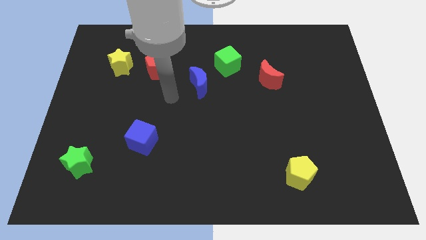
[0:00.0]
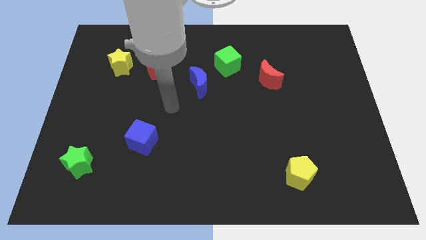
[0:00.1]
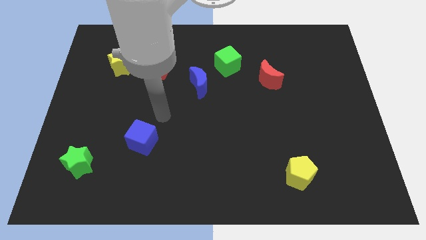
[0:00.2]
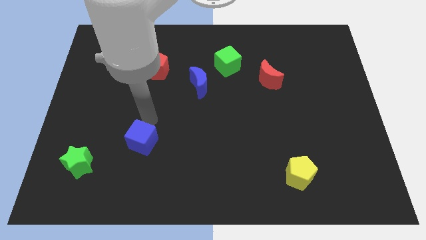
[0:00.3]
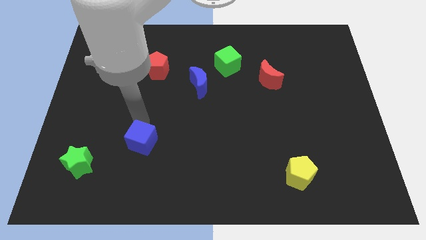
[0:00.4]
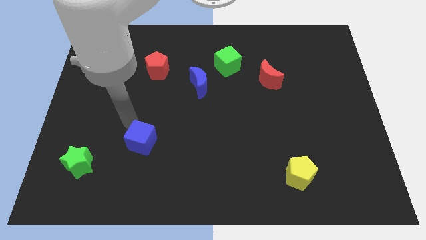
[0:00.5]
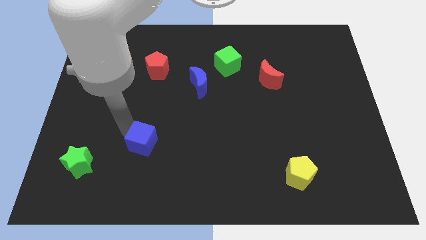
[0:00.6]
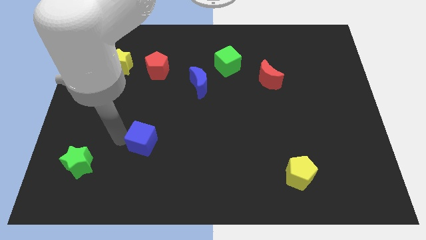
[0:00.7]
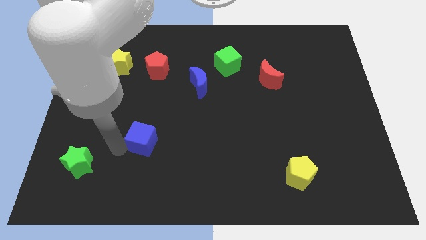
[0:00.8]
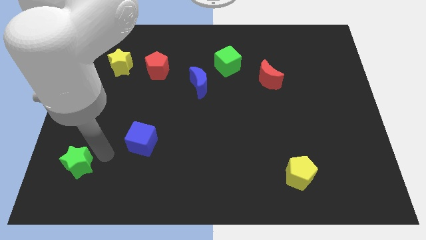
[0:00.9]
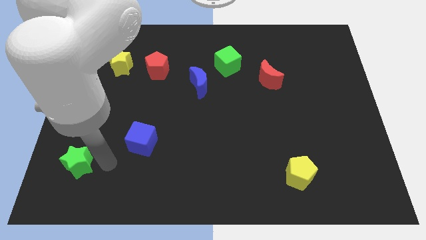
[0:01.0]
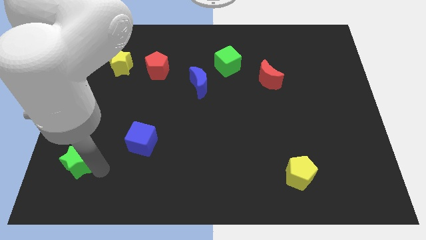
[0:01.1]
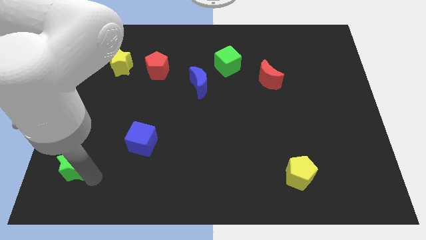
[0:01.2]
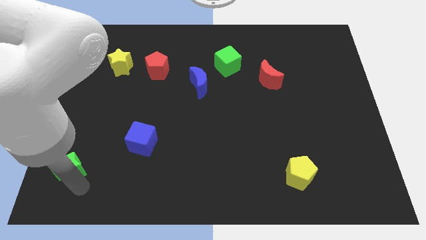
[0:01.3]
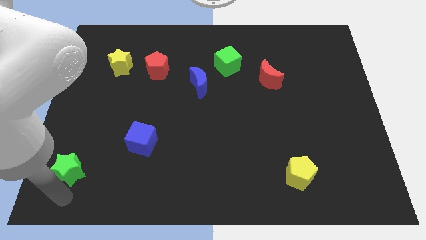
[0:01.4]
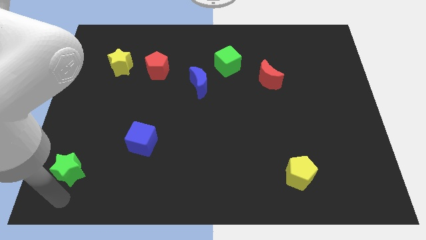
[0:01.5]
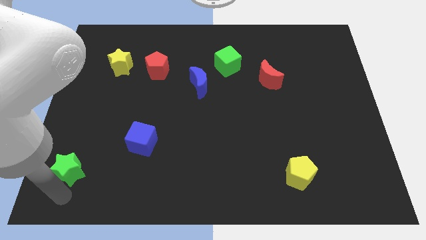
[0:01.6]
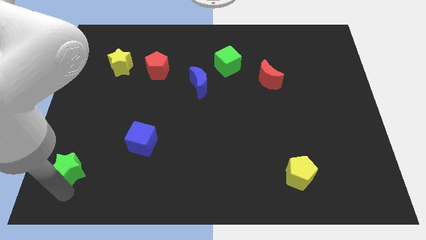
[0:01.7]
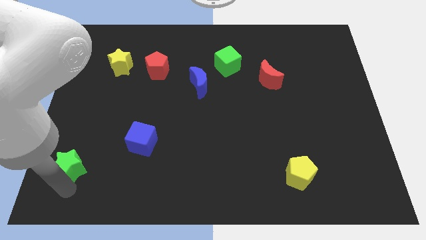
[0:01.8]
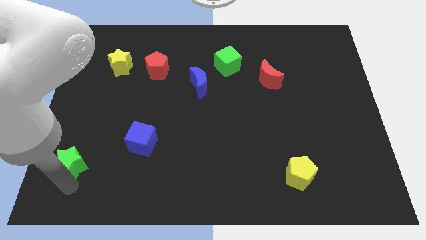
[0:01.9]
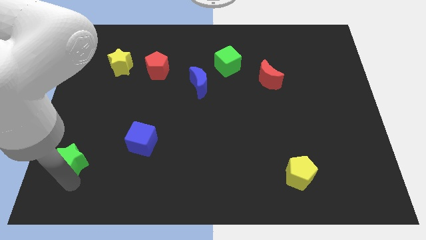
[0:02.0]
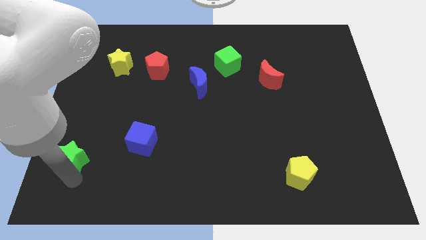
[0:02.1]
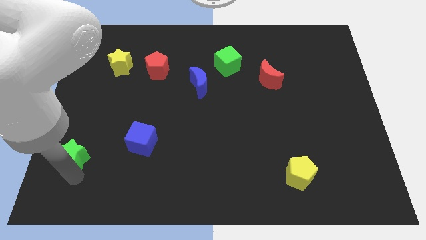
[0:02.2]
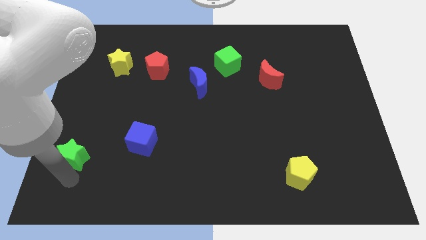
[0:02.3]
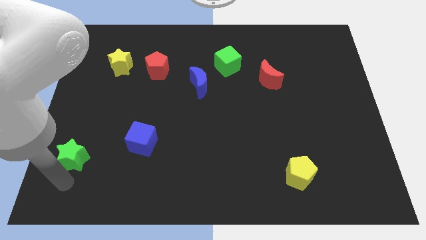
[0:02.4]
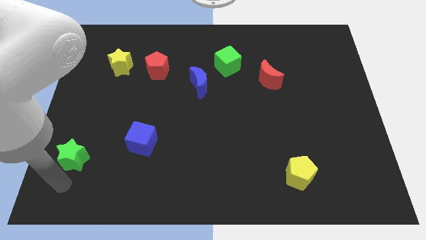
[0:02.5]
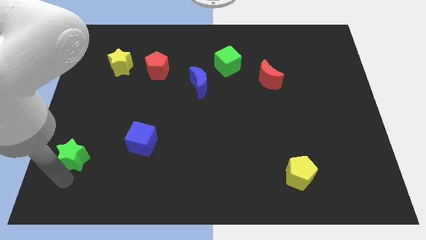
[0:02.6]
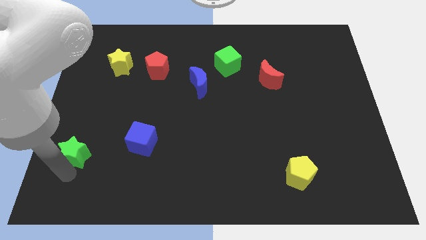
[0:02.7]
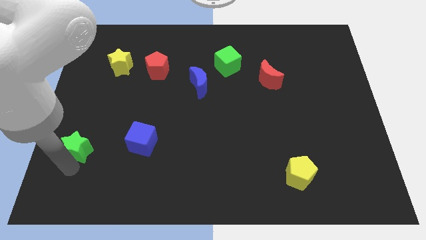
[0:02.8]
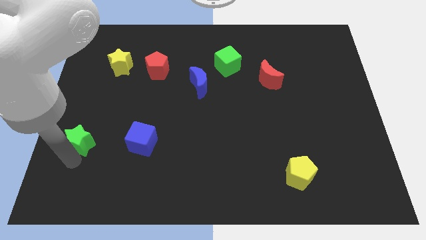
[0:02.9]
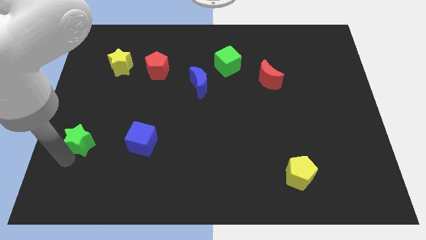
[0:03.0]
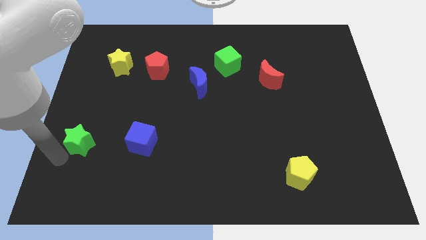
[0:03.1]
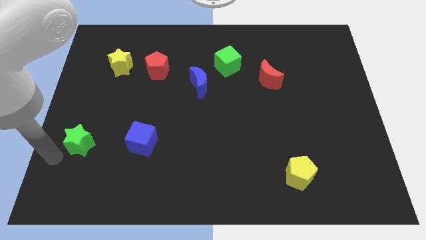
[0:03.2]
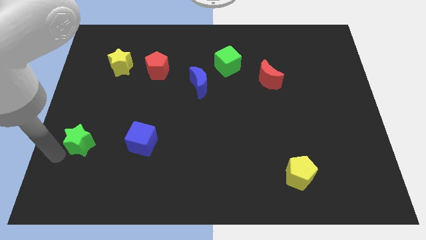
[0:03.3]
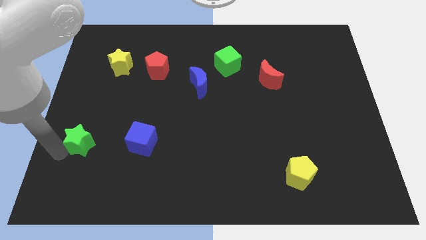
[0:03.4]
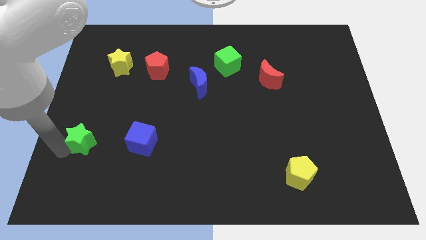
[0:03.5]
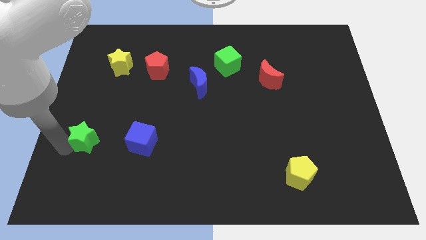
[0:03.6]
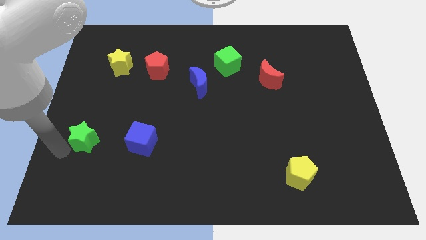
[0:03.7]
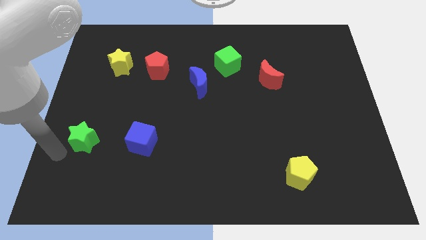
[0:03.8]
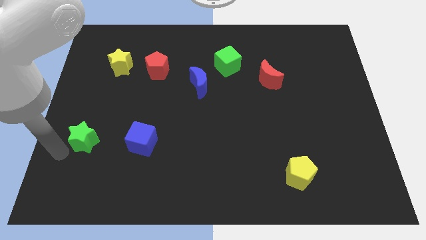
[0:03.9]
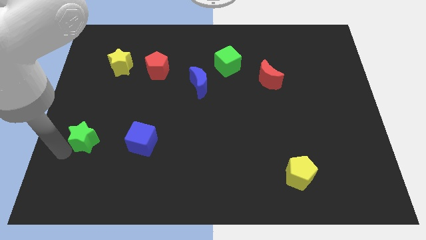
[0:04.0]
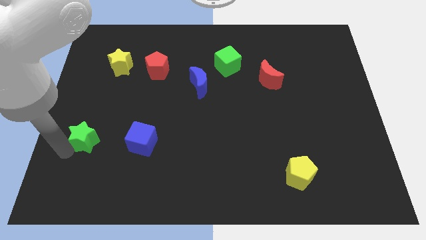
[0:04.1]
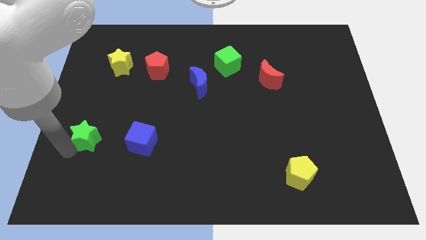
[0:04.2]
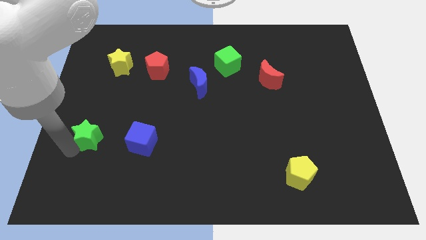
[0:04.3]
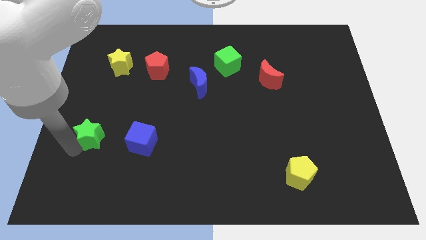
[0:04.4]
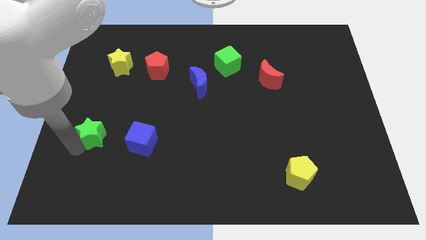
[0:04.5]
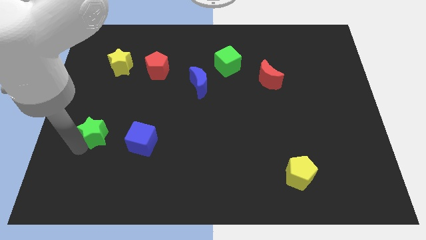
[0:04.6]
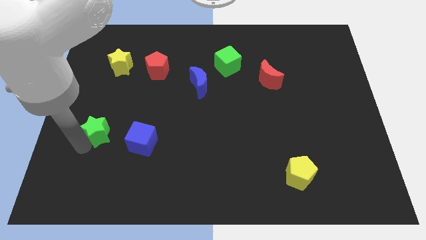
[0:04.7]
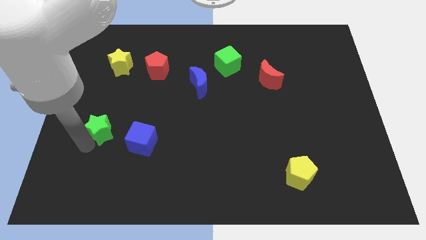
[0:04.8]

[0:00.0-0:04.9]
slide the green star diagonally up and to the left of the blue cube

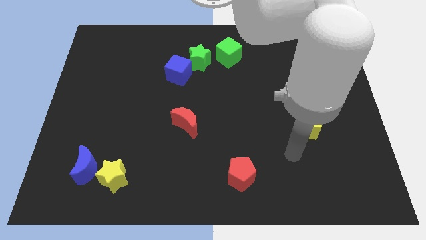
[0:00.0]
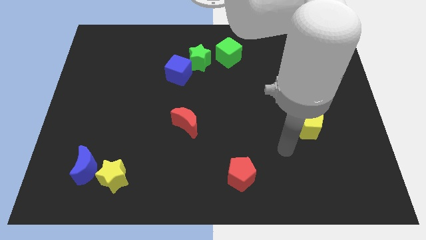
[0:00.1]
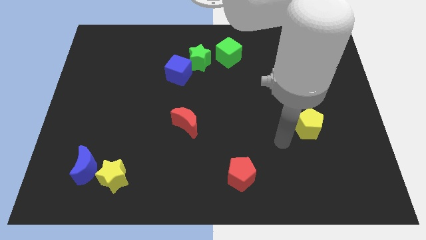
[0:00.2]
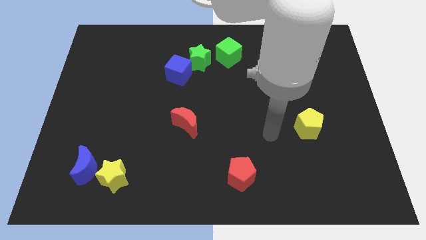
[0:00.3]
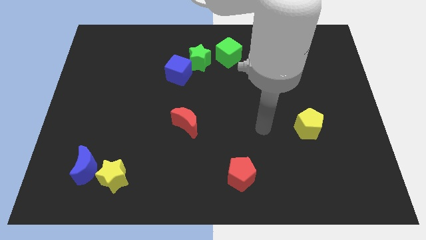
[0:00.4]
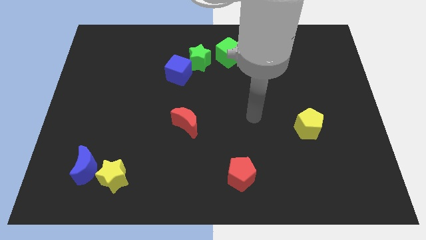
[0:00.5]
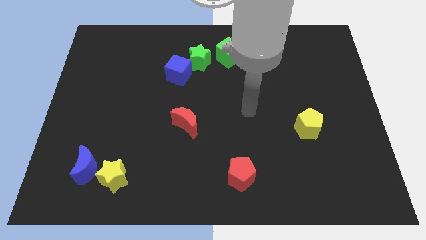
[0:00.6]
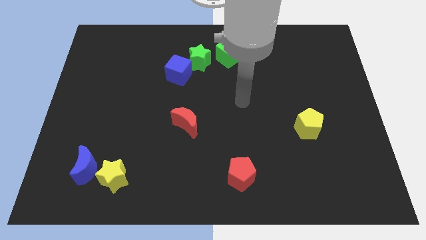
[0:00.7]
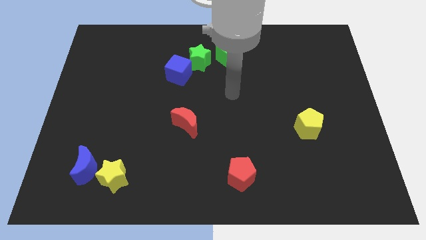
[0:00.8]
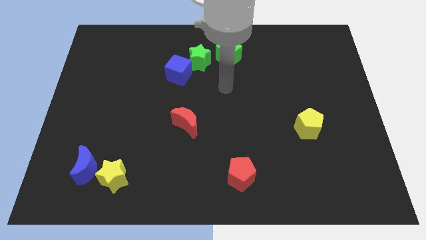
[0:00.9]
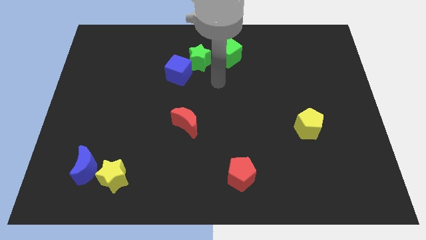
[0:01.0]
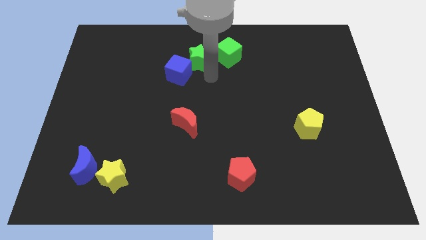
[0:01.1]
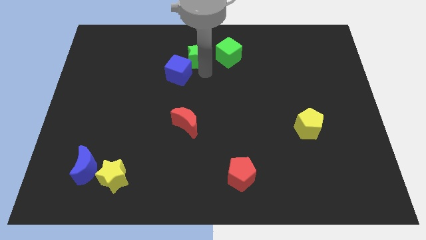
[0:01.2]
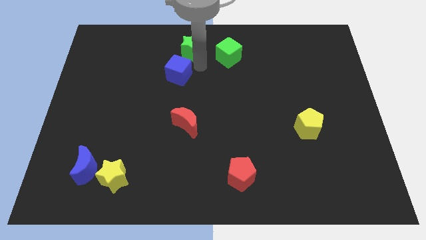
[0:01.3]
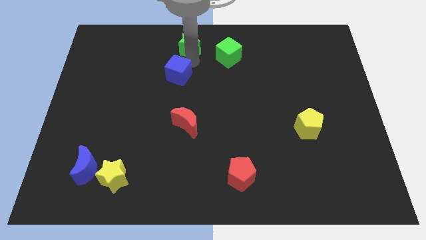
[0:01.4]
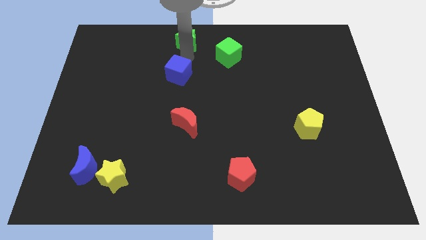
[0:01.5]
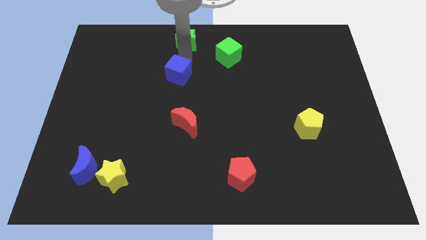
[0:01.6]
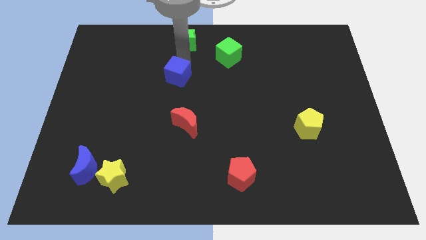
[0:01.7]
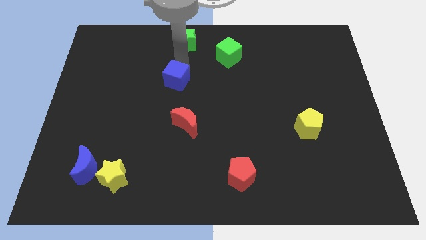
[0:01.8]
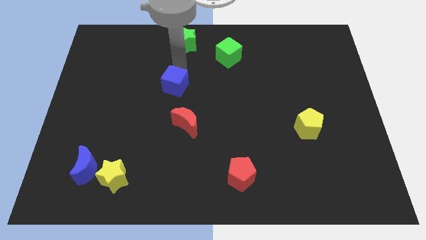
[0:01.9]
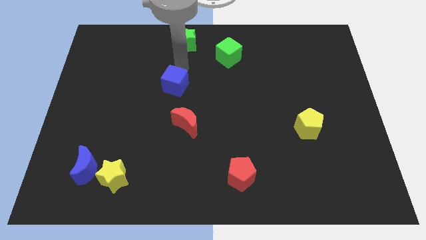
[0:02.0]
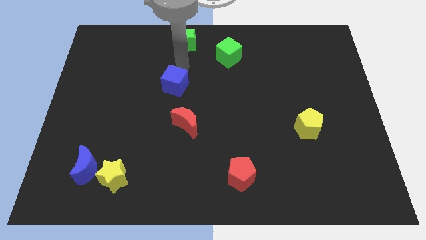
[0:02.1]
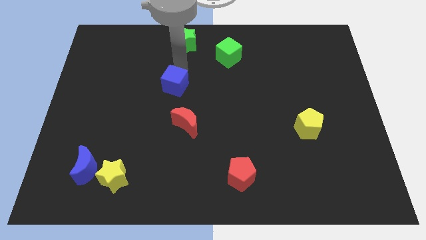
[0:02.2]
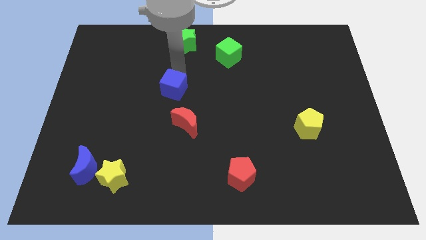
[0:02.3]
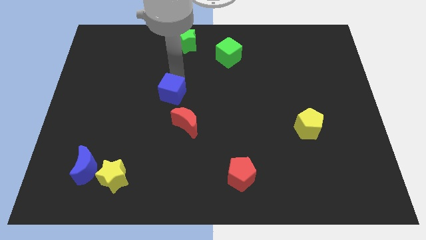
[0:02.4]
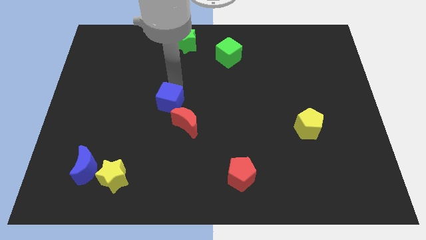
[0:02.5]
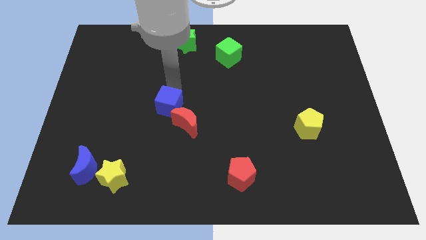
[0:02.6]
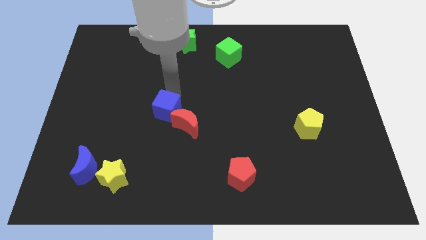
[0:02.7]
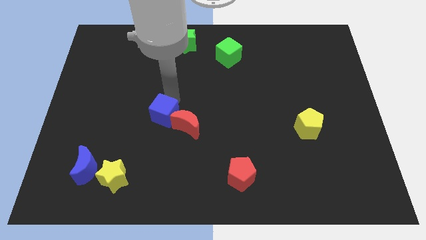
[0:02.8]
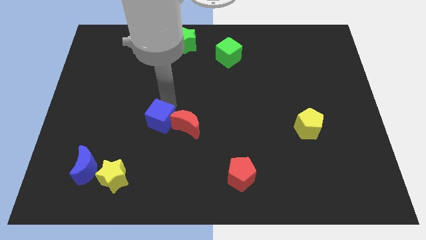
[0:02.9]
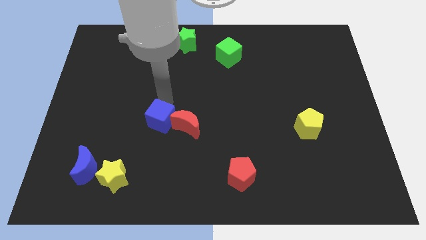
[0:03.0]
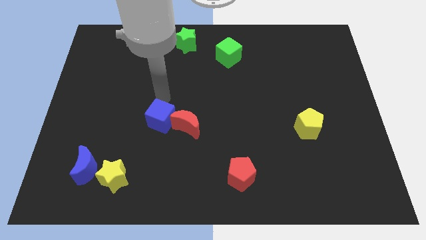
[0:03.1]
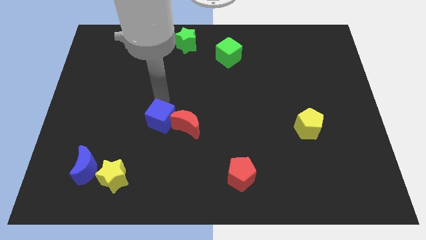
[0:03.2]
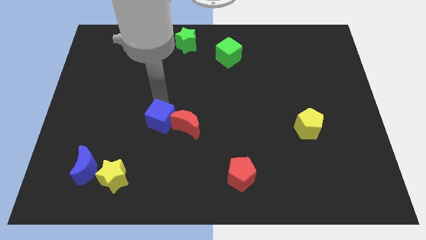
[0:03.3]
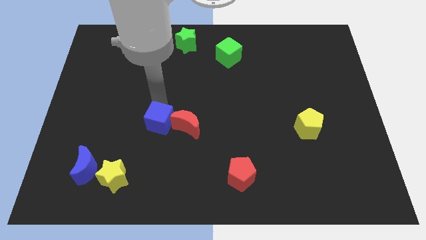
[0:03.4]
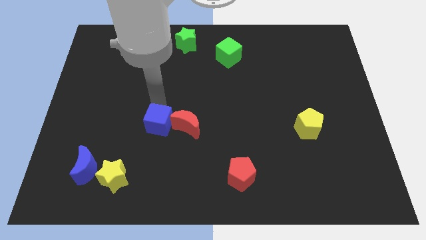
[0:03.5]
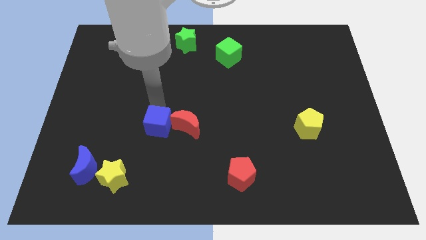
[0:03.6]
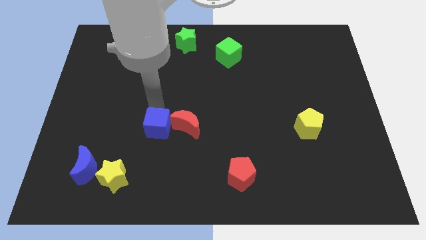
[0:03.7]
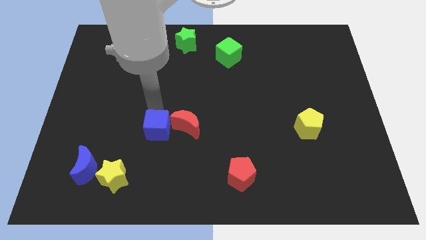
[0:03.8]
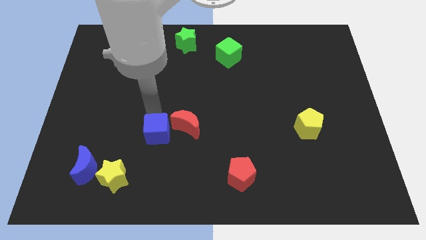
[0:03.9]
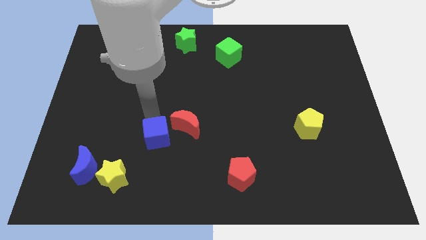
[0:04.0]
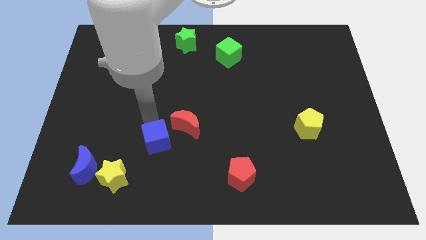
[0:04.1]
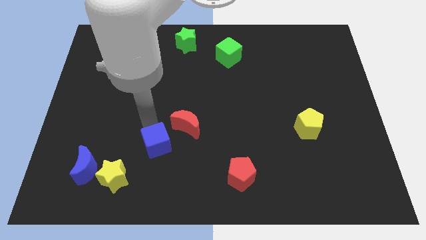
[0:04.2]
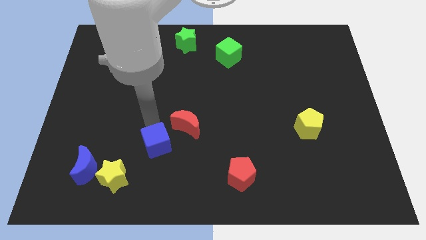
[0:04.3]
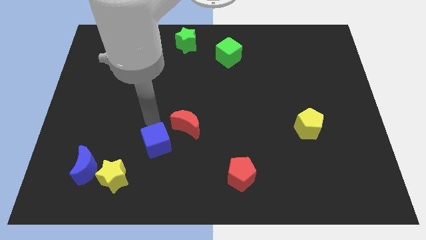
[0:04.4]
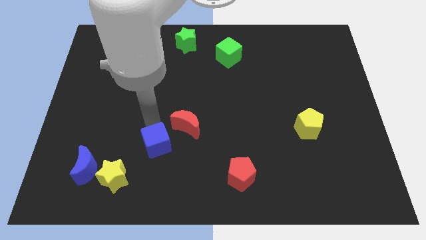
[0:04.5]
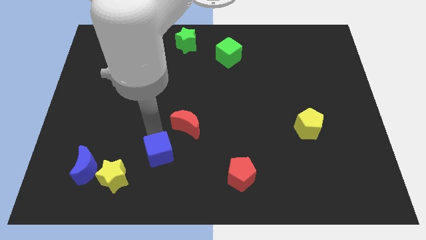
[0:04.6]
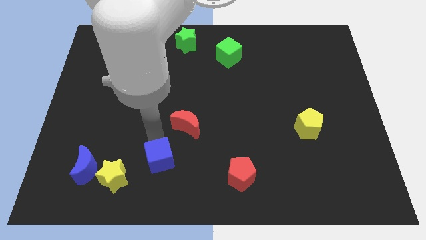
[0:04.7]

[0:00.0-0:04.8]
push the blue cube to the right of the yellow star
